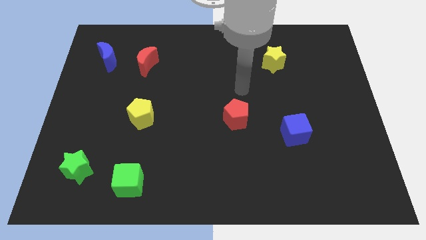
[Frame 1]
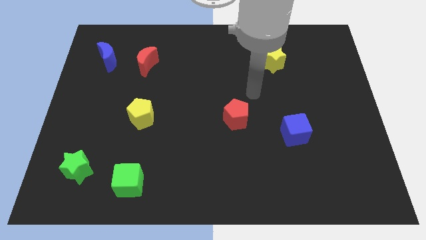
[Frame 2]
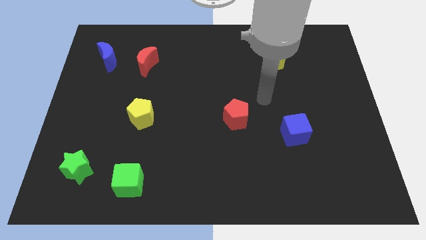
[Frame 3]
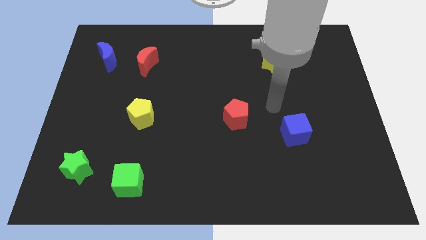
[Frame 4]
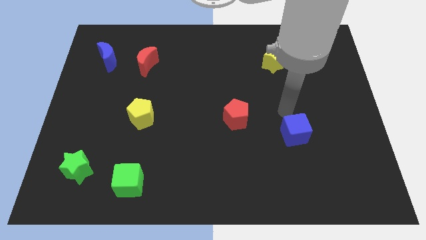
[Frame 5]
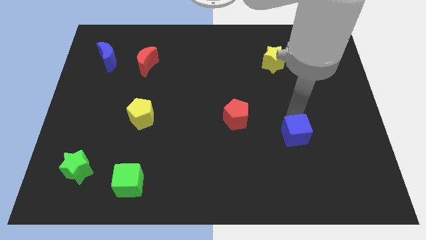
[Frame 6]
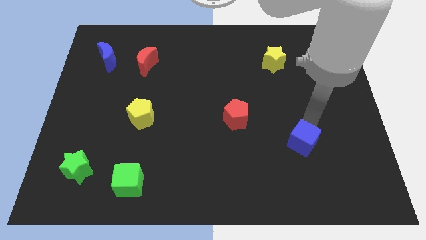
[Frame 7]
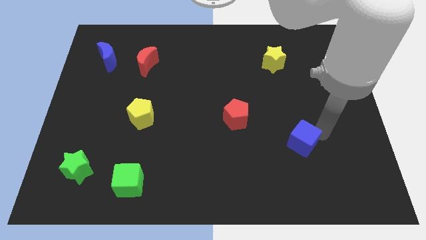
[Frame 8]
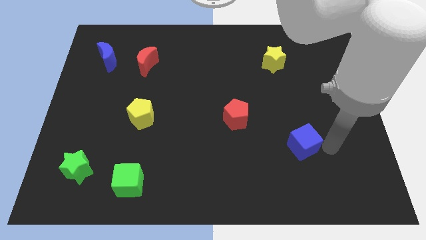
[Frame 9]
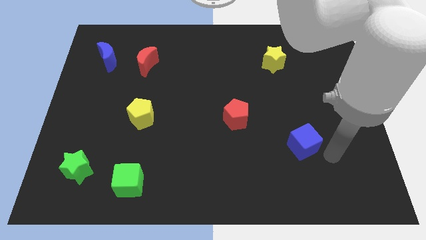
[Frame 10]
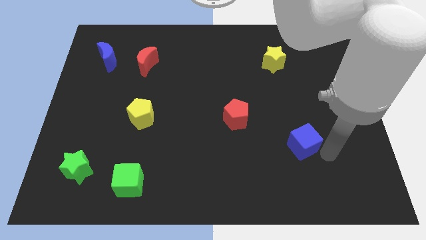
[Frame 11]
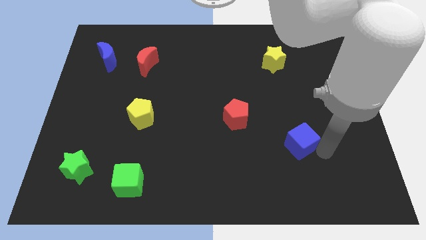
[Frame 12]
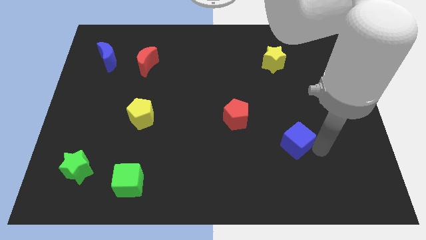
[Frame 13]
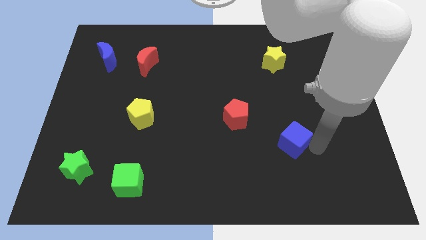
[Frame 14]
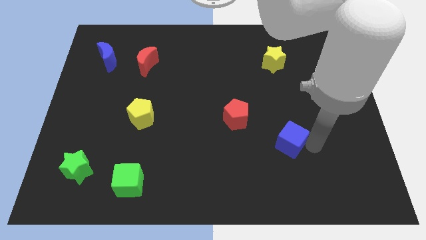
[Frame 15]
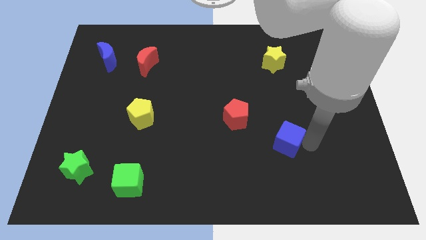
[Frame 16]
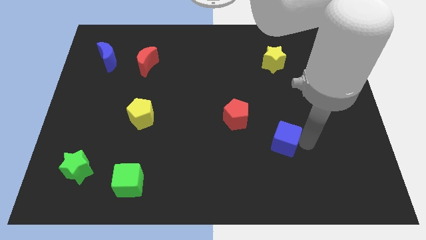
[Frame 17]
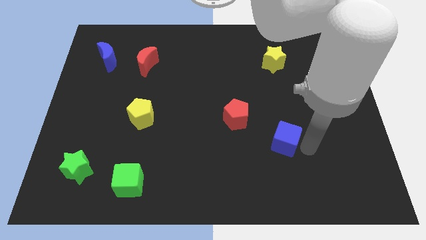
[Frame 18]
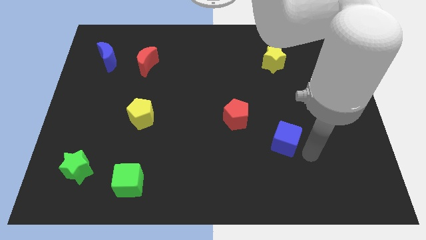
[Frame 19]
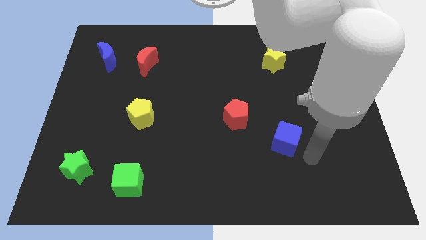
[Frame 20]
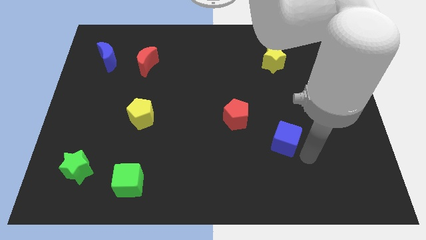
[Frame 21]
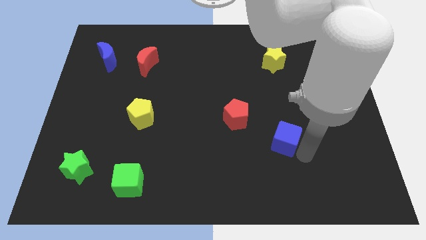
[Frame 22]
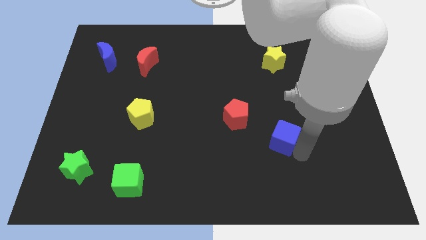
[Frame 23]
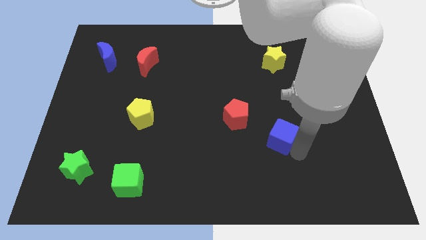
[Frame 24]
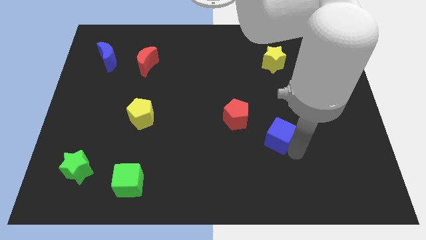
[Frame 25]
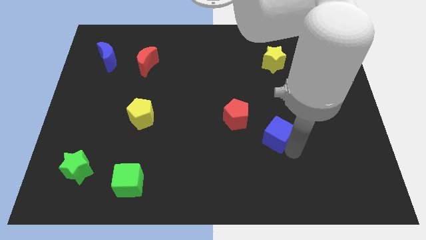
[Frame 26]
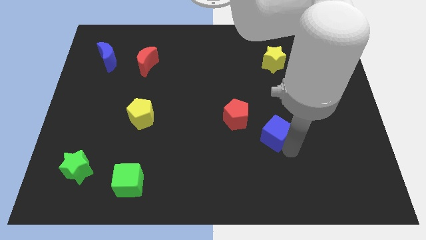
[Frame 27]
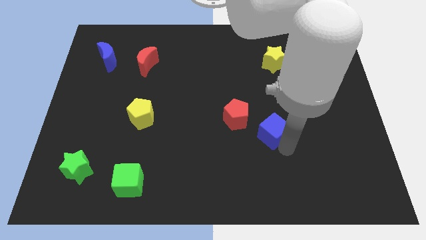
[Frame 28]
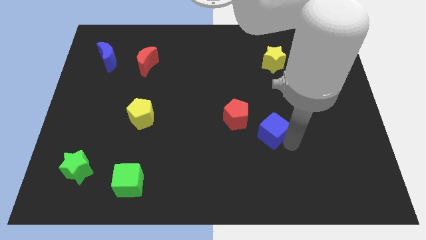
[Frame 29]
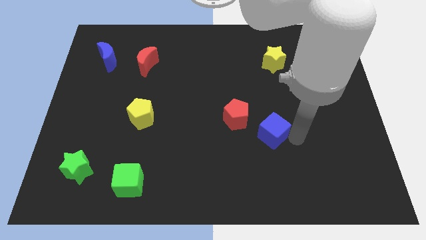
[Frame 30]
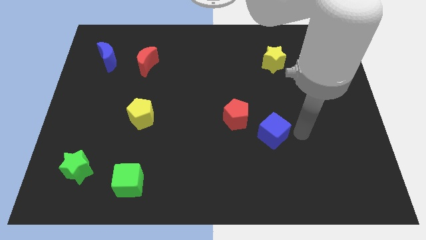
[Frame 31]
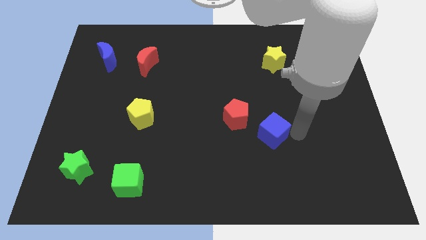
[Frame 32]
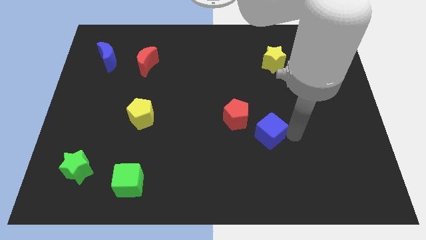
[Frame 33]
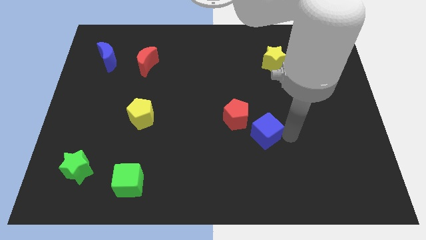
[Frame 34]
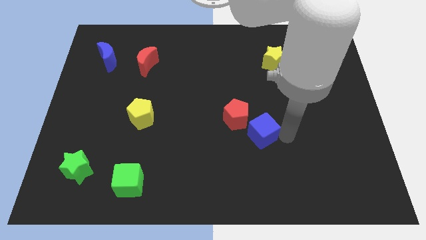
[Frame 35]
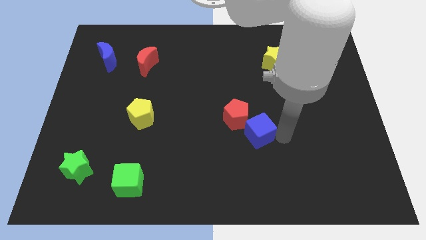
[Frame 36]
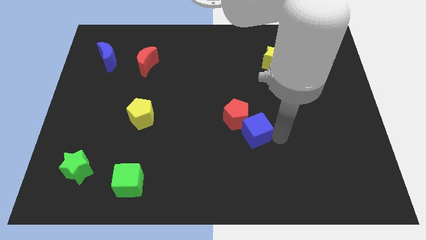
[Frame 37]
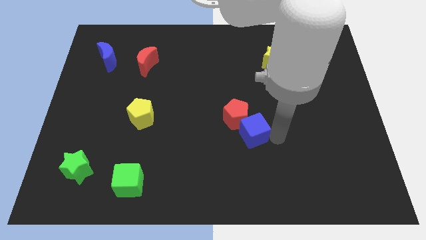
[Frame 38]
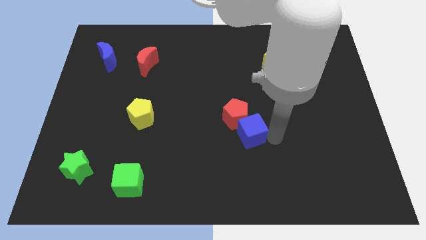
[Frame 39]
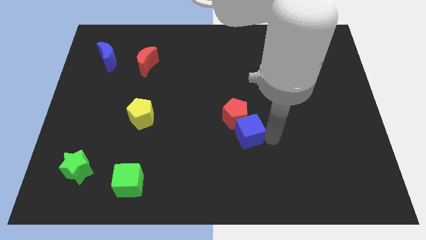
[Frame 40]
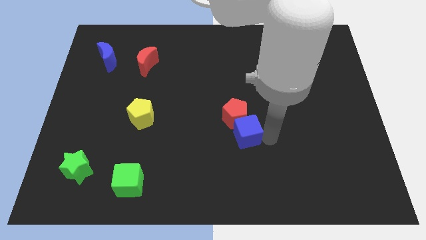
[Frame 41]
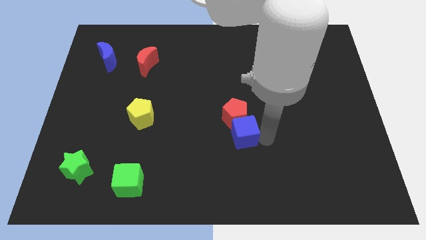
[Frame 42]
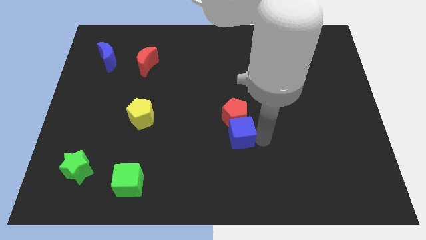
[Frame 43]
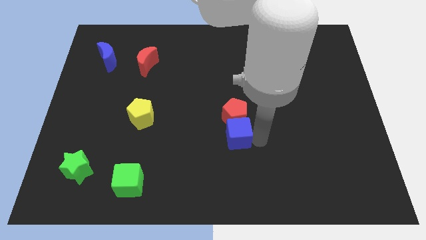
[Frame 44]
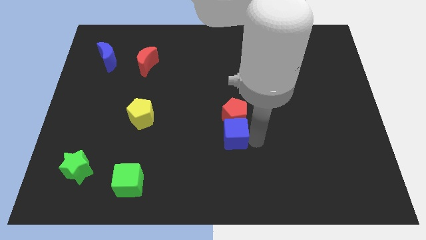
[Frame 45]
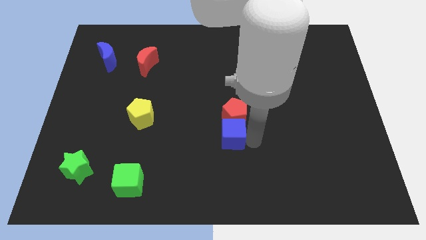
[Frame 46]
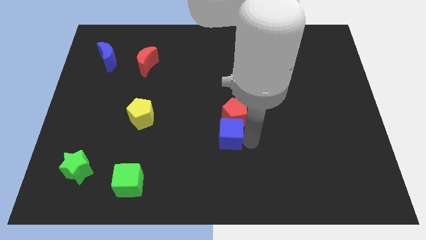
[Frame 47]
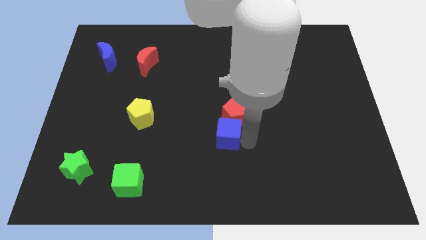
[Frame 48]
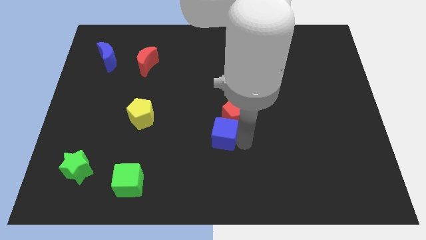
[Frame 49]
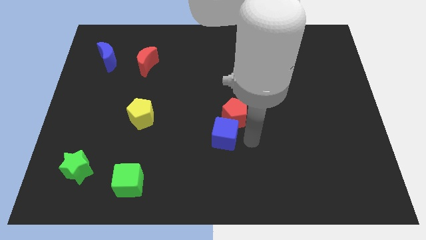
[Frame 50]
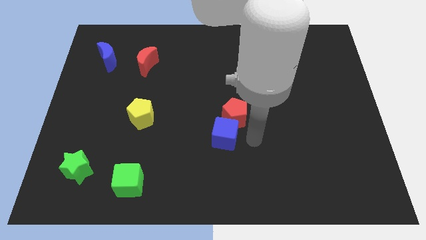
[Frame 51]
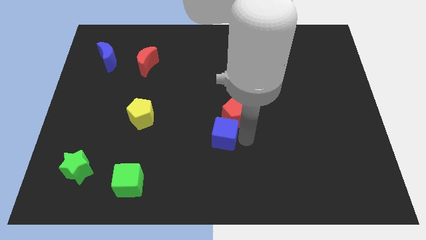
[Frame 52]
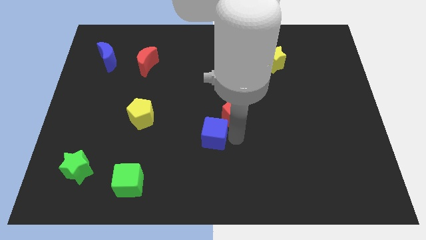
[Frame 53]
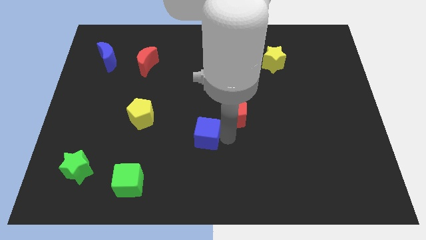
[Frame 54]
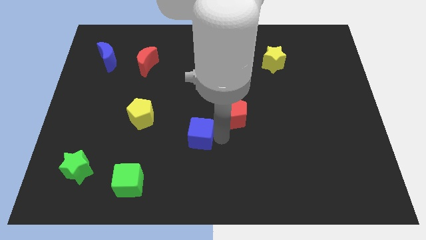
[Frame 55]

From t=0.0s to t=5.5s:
move the blue cube left

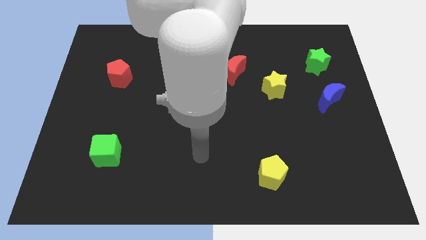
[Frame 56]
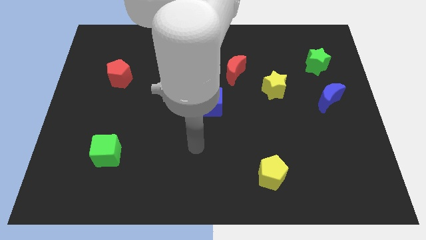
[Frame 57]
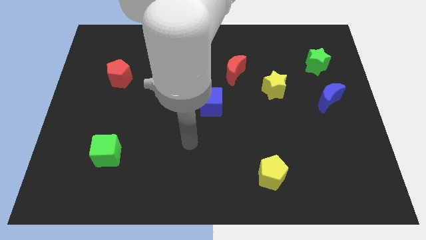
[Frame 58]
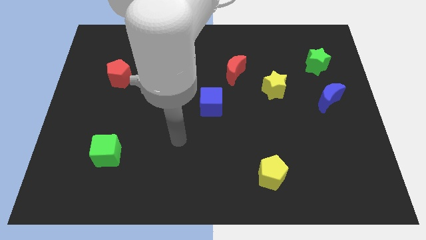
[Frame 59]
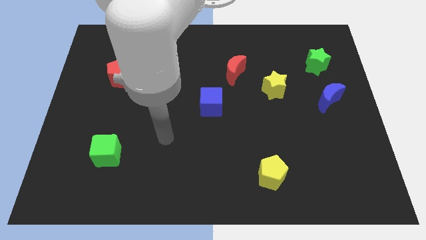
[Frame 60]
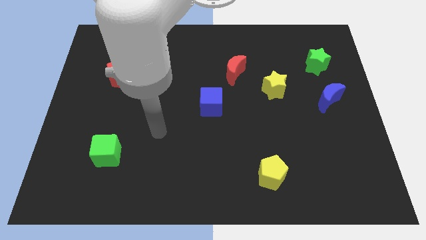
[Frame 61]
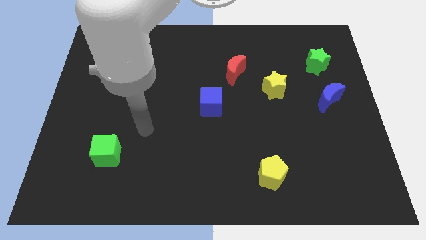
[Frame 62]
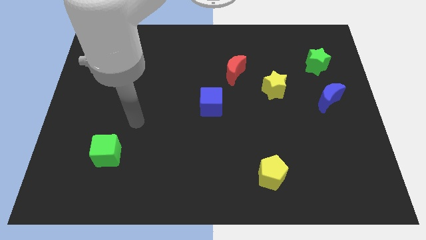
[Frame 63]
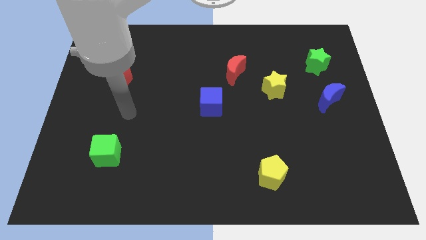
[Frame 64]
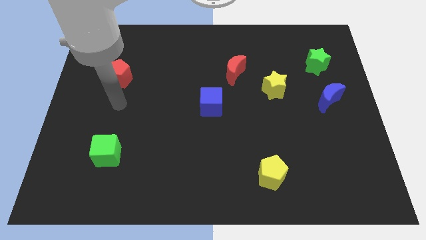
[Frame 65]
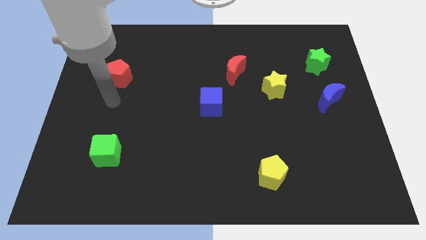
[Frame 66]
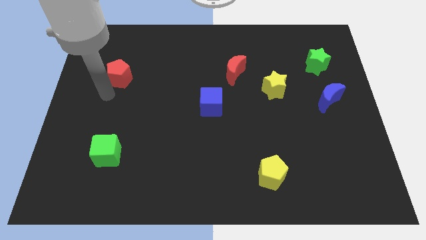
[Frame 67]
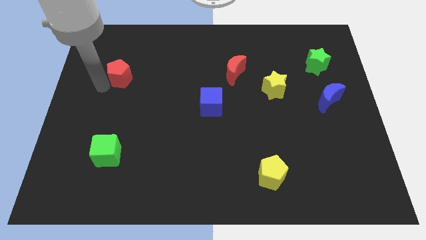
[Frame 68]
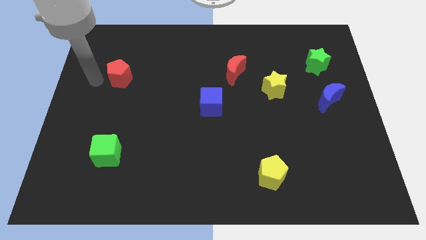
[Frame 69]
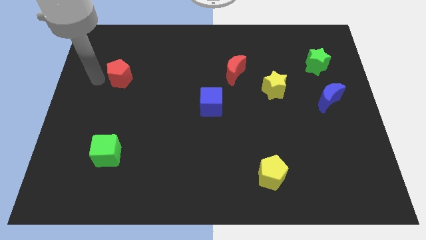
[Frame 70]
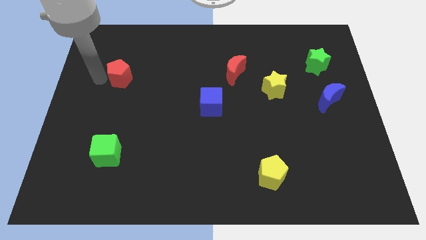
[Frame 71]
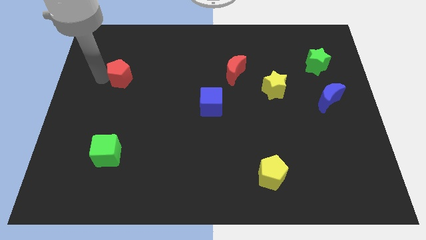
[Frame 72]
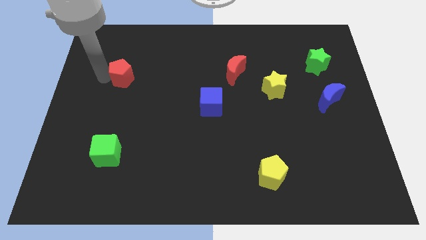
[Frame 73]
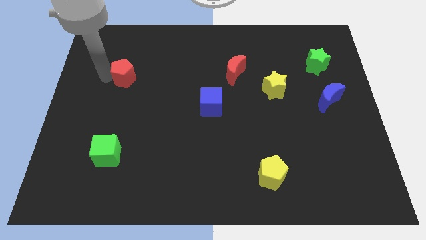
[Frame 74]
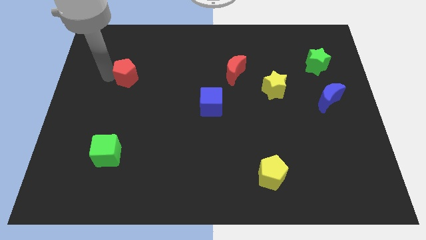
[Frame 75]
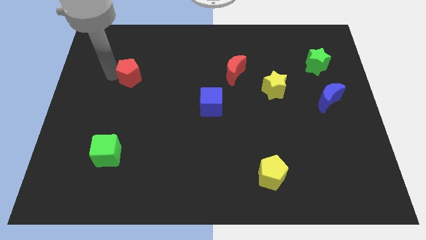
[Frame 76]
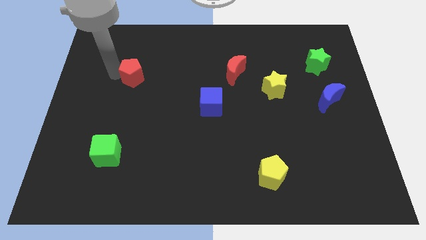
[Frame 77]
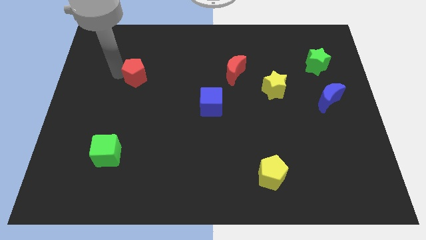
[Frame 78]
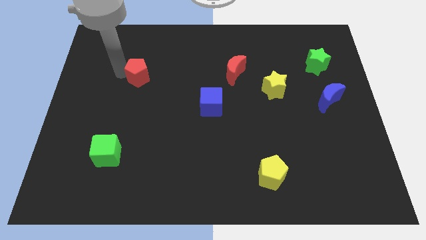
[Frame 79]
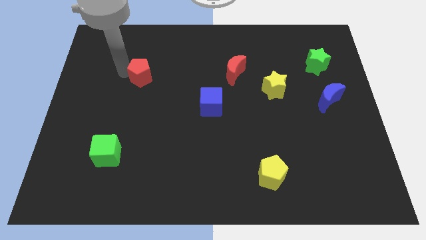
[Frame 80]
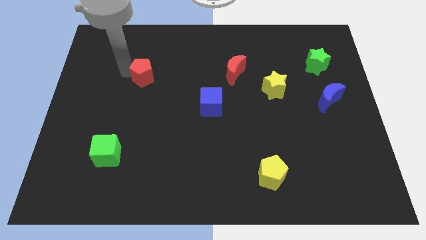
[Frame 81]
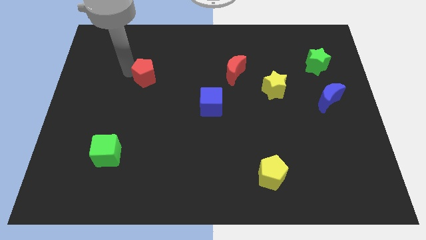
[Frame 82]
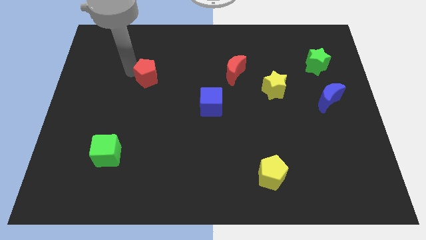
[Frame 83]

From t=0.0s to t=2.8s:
slightly push the red pentagon right
